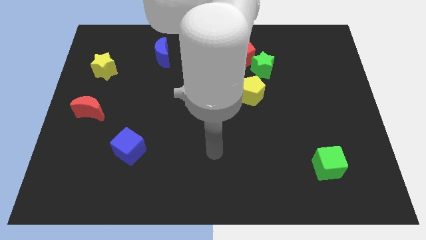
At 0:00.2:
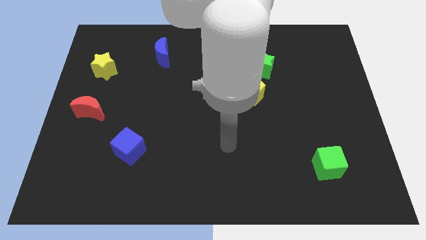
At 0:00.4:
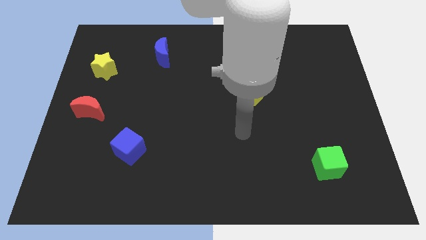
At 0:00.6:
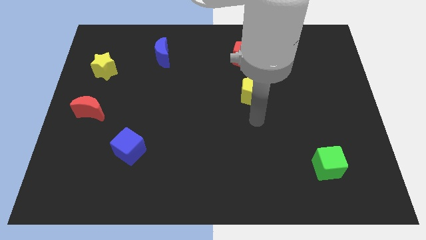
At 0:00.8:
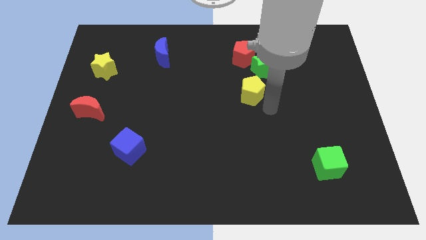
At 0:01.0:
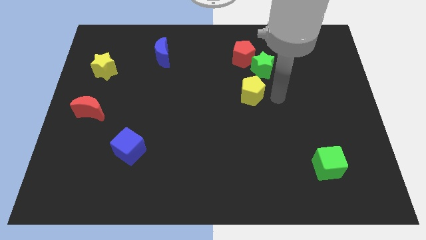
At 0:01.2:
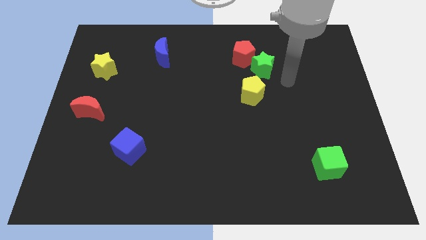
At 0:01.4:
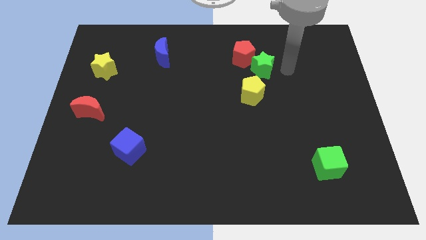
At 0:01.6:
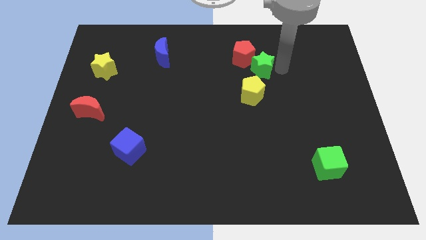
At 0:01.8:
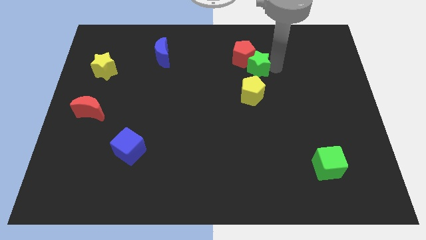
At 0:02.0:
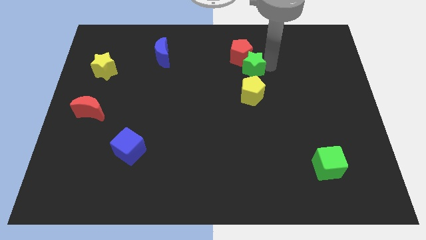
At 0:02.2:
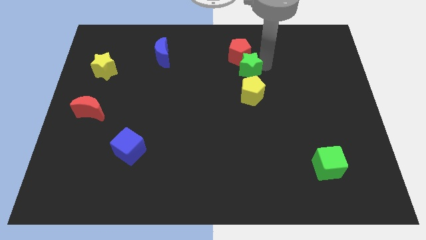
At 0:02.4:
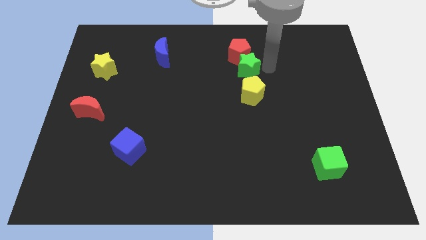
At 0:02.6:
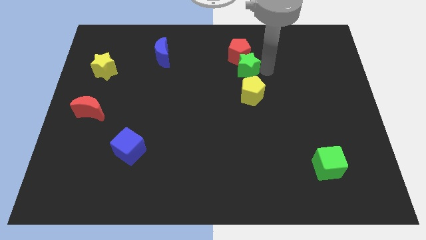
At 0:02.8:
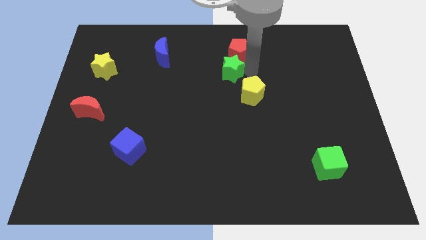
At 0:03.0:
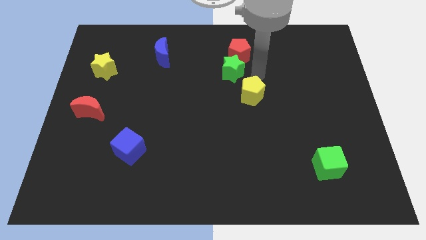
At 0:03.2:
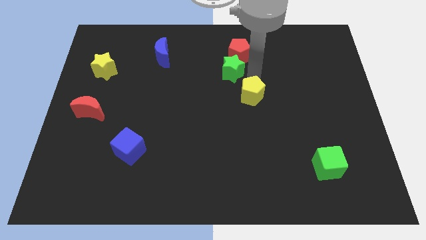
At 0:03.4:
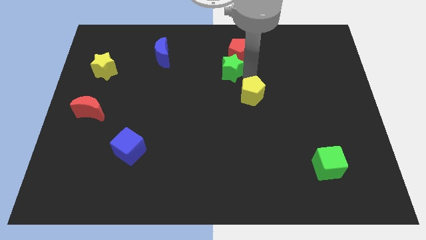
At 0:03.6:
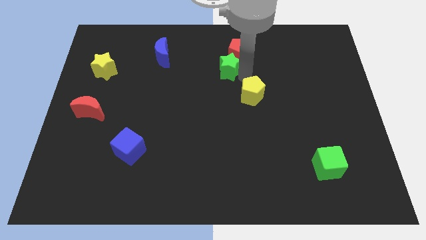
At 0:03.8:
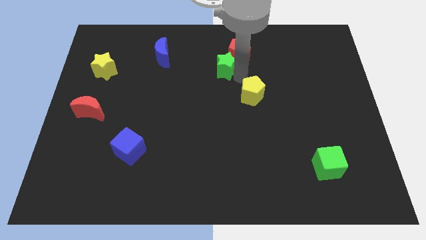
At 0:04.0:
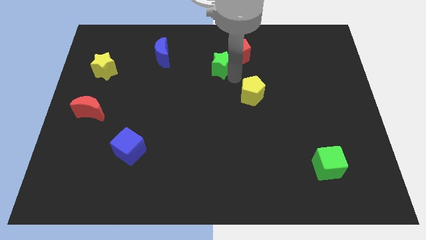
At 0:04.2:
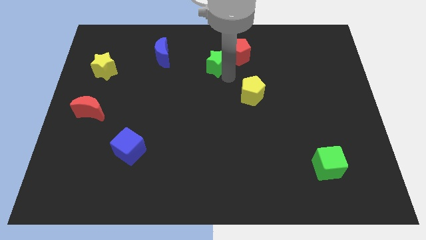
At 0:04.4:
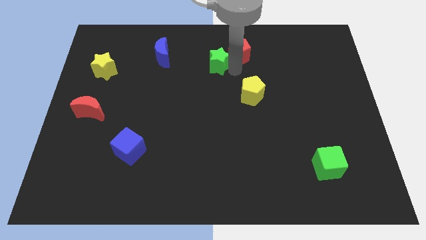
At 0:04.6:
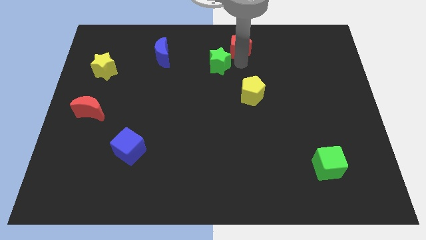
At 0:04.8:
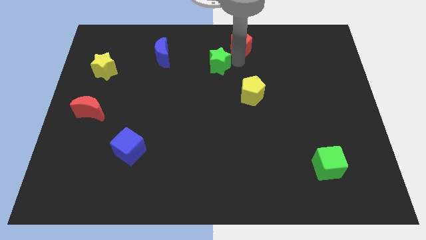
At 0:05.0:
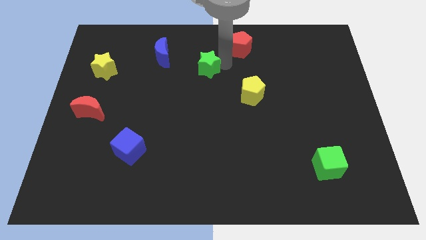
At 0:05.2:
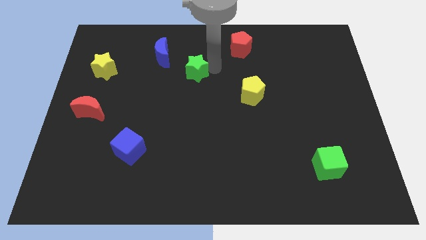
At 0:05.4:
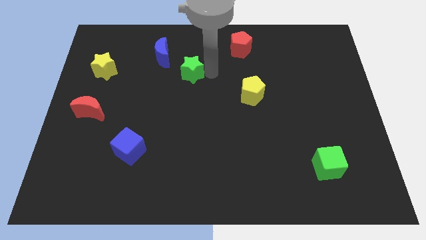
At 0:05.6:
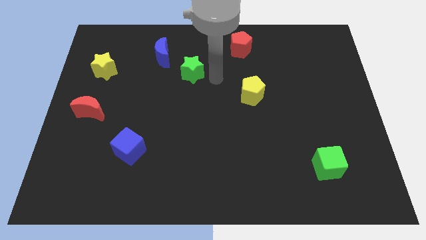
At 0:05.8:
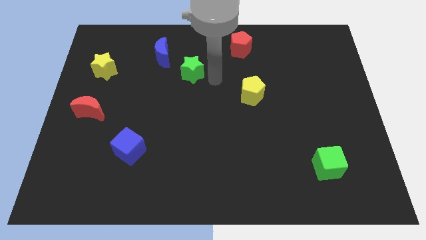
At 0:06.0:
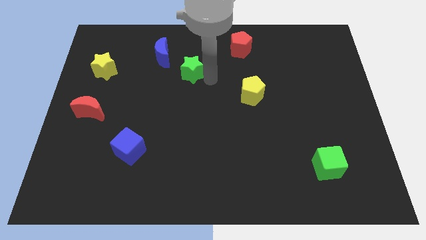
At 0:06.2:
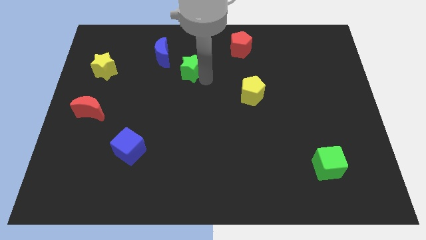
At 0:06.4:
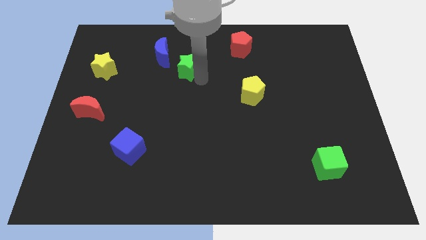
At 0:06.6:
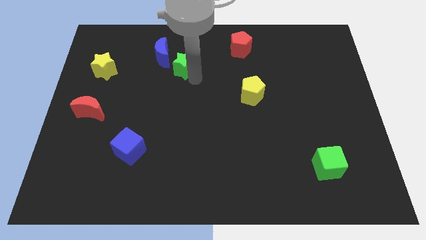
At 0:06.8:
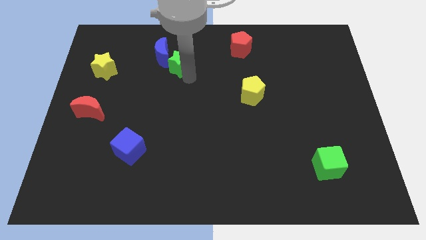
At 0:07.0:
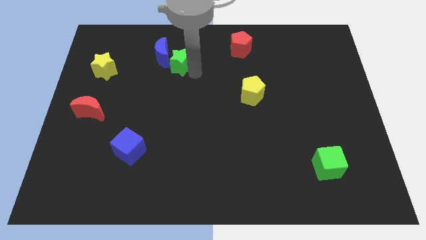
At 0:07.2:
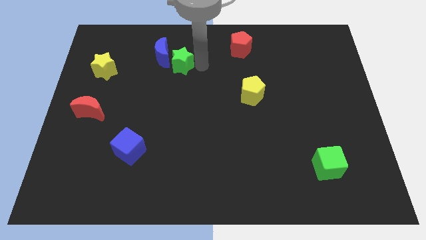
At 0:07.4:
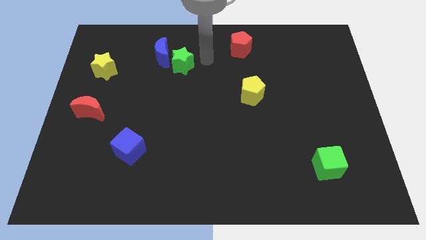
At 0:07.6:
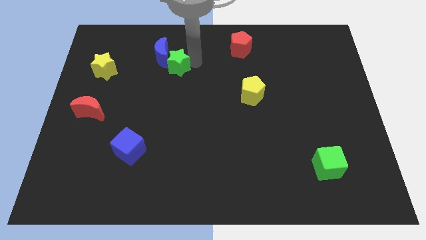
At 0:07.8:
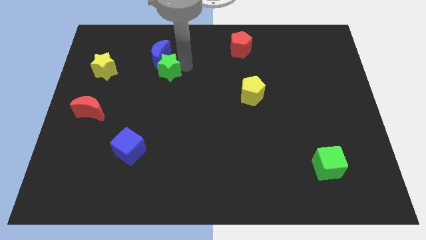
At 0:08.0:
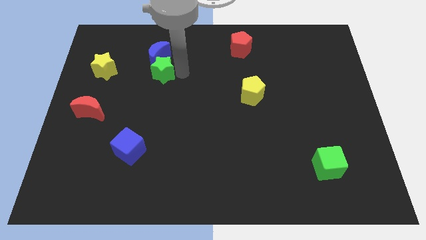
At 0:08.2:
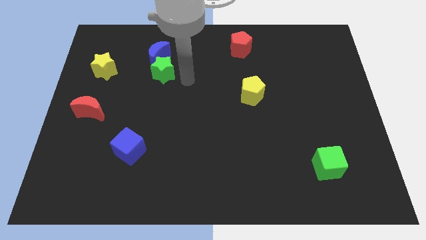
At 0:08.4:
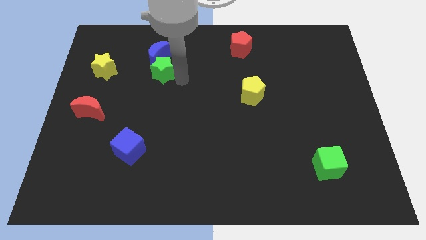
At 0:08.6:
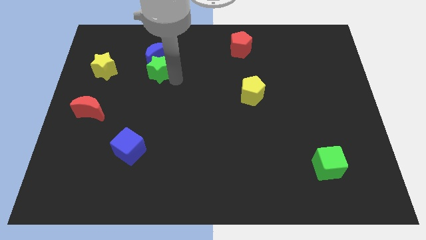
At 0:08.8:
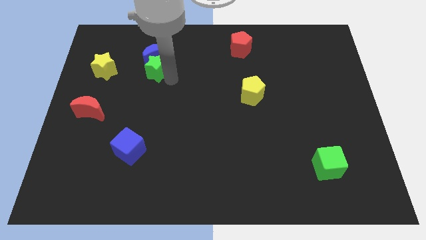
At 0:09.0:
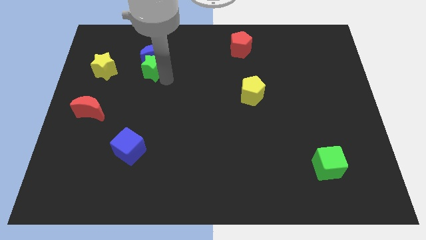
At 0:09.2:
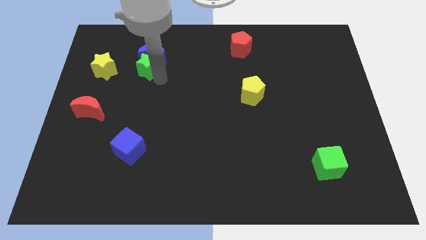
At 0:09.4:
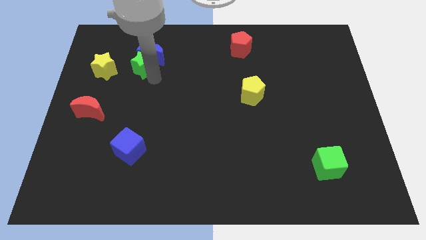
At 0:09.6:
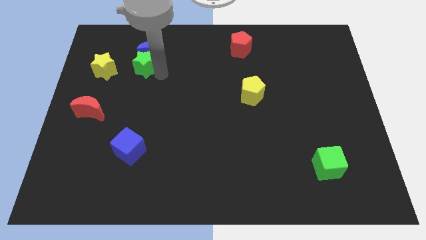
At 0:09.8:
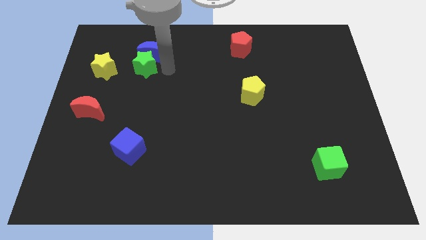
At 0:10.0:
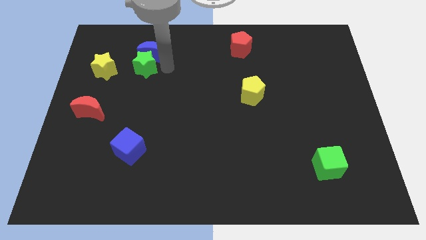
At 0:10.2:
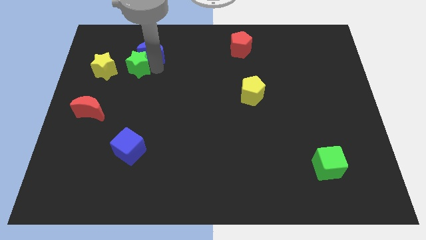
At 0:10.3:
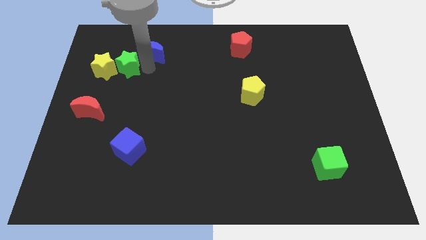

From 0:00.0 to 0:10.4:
slide the green star towards the yellow star

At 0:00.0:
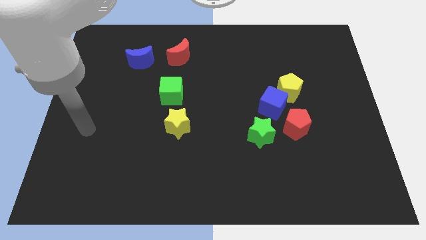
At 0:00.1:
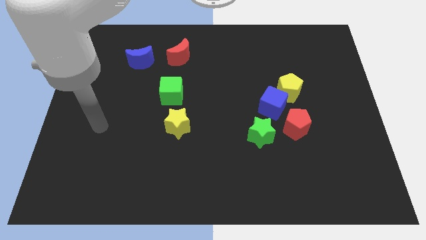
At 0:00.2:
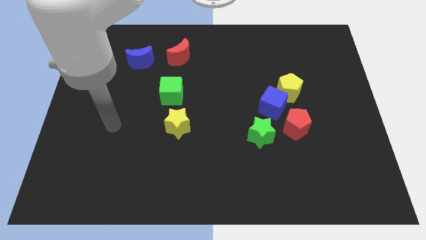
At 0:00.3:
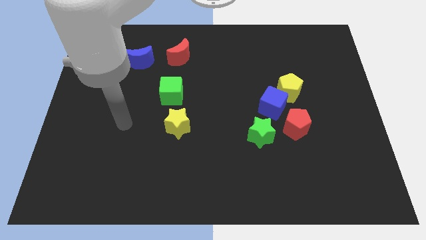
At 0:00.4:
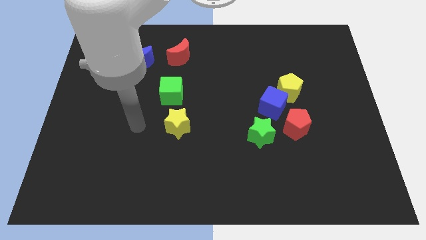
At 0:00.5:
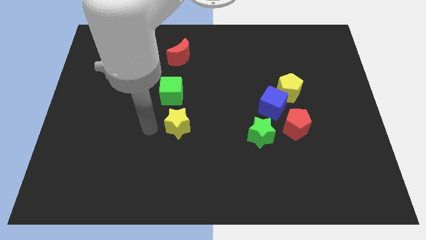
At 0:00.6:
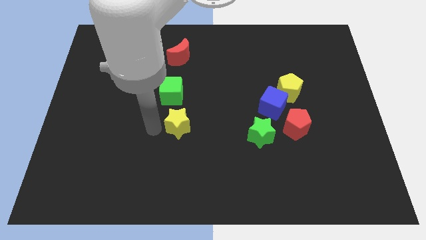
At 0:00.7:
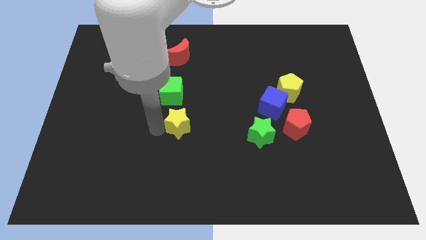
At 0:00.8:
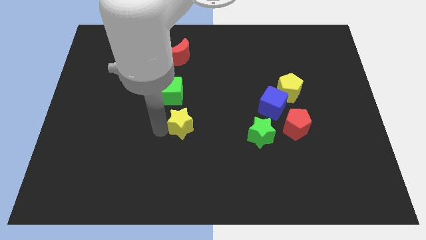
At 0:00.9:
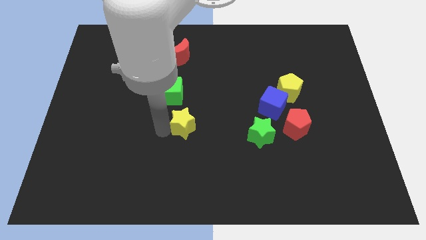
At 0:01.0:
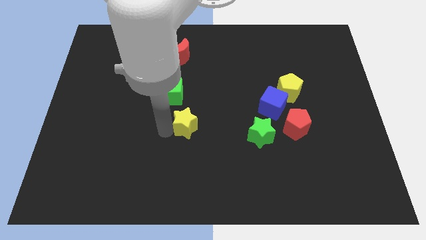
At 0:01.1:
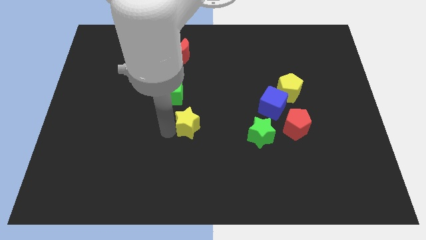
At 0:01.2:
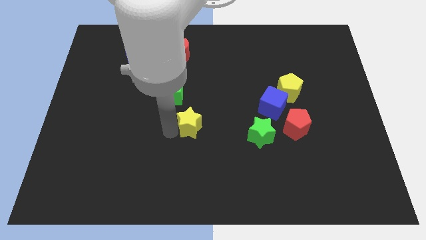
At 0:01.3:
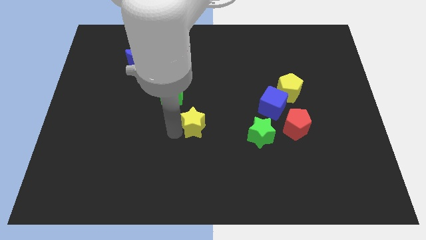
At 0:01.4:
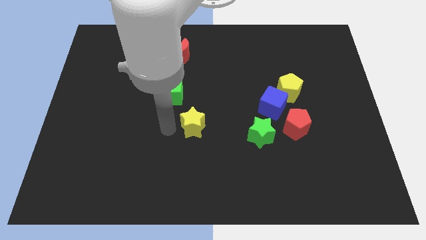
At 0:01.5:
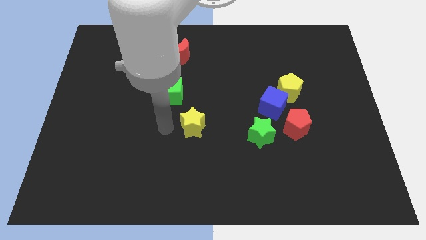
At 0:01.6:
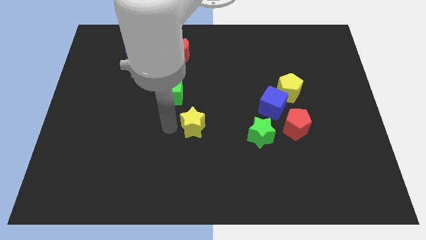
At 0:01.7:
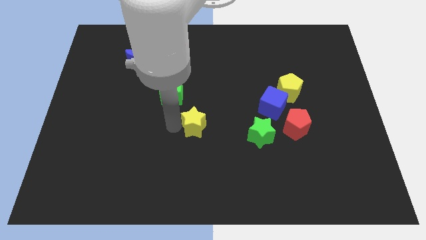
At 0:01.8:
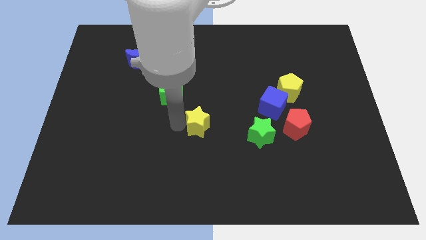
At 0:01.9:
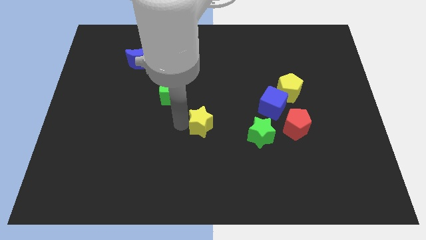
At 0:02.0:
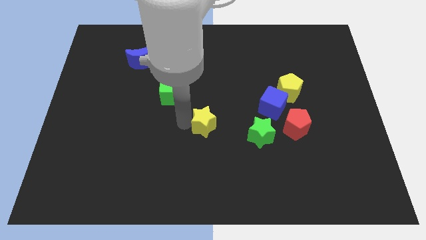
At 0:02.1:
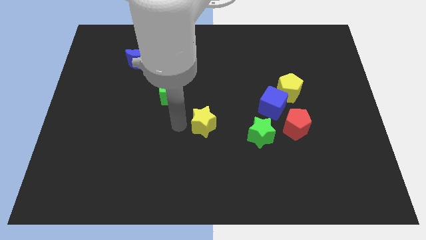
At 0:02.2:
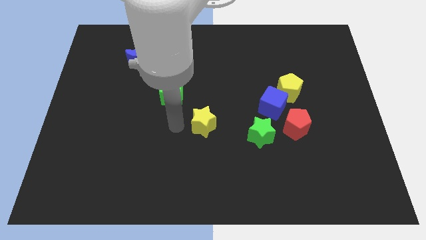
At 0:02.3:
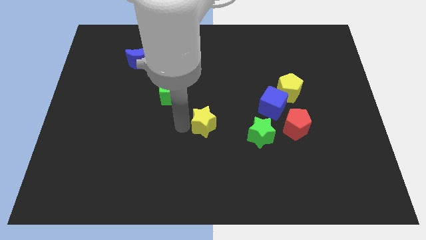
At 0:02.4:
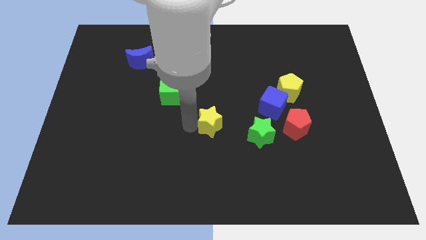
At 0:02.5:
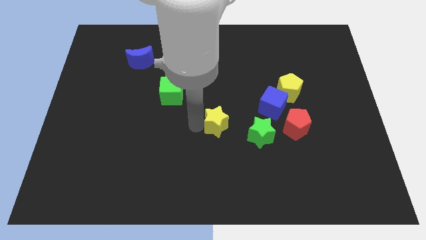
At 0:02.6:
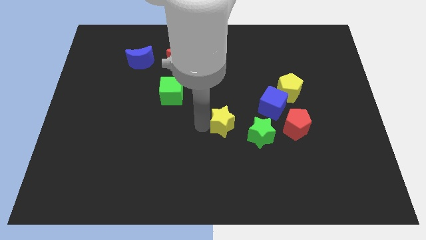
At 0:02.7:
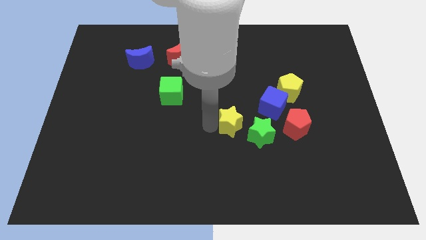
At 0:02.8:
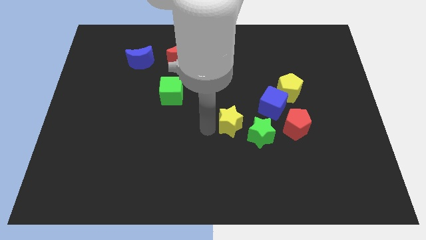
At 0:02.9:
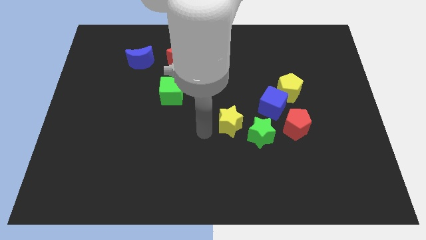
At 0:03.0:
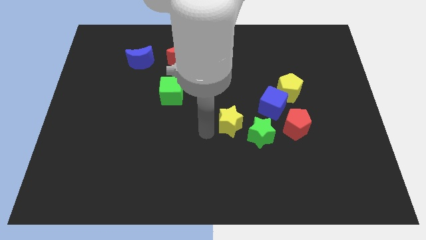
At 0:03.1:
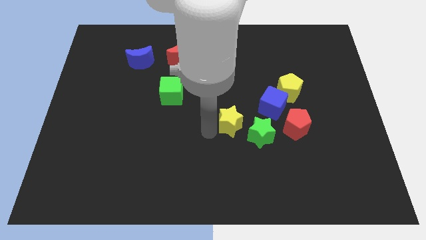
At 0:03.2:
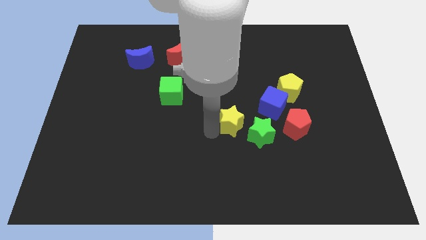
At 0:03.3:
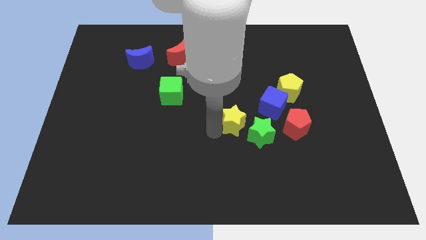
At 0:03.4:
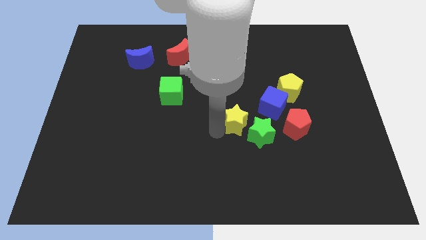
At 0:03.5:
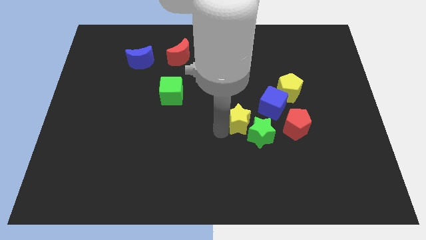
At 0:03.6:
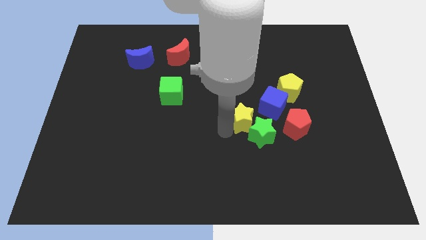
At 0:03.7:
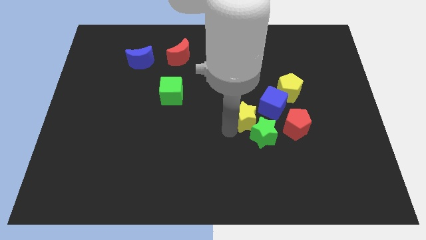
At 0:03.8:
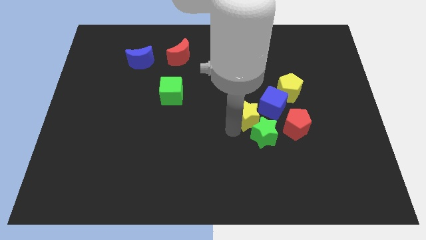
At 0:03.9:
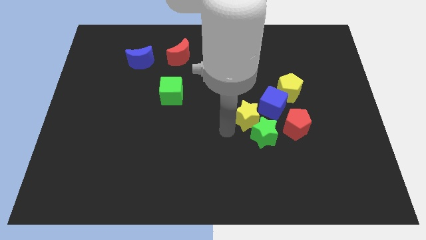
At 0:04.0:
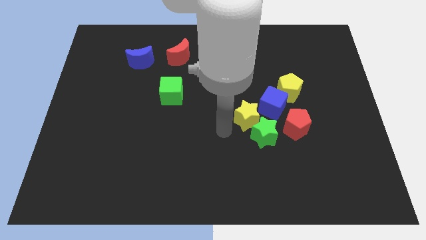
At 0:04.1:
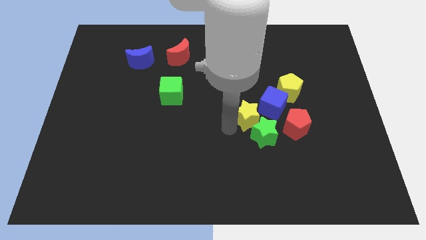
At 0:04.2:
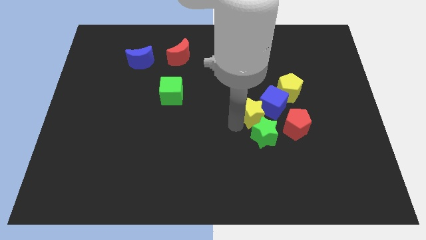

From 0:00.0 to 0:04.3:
put the yellow star close to the blue cube
